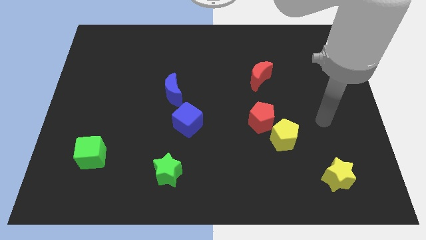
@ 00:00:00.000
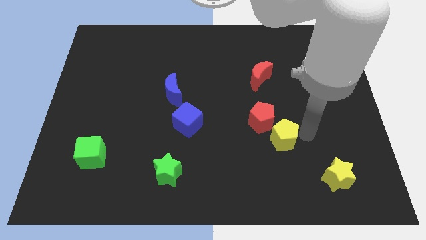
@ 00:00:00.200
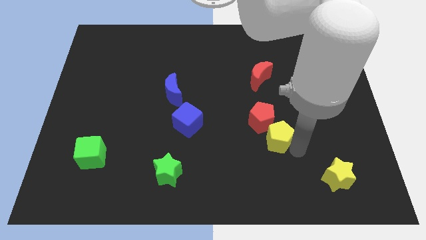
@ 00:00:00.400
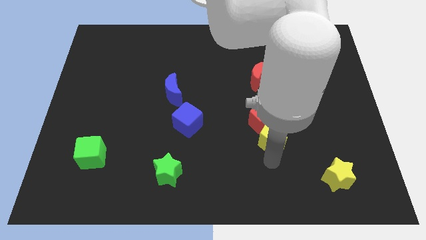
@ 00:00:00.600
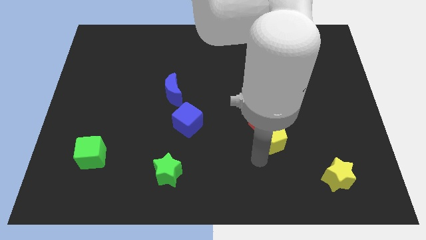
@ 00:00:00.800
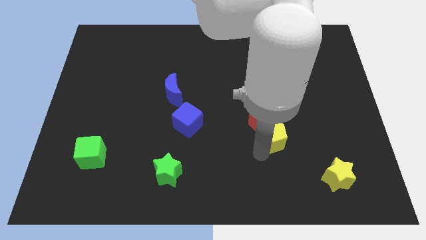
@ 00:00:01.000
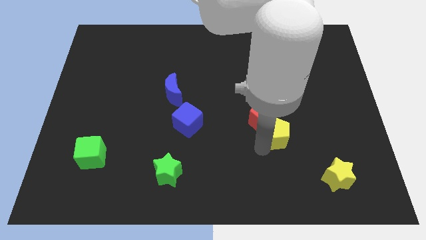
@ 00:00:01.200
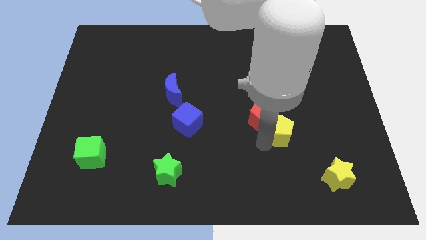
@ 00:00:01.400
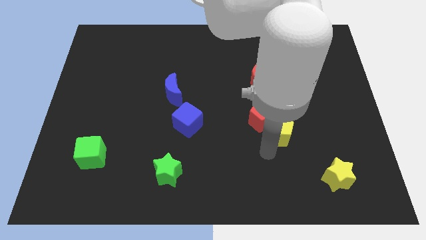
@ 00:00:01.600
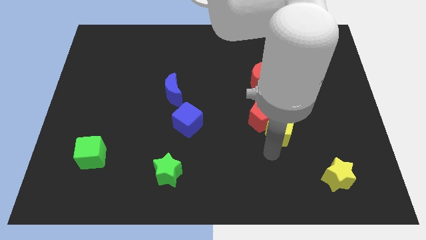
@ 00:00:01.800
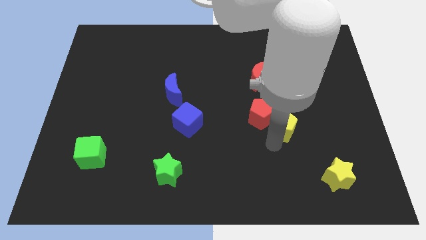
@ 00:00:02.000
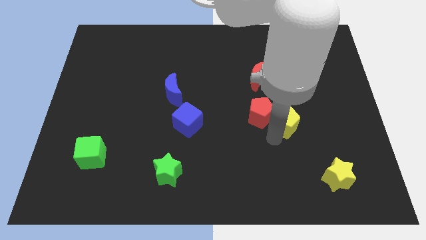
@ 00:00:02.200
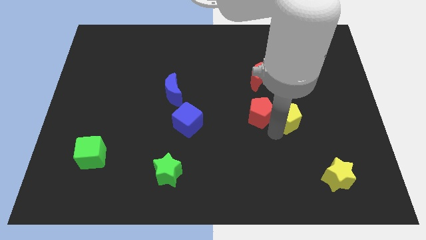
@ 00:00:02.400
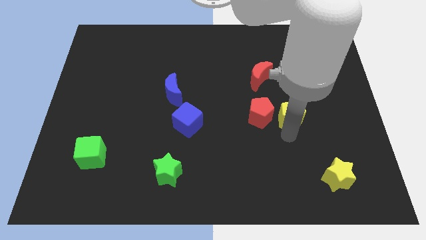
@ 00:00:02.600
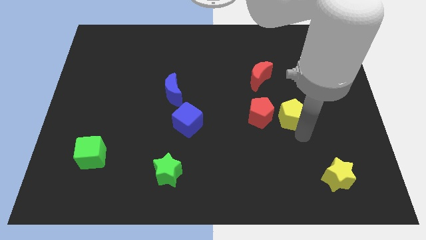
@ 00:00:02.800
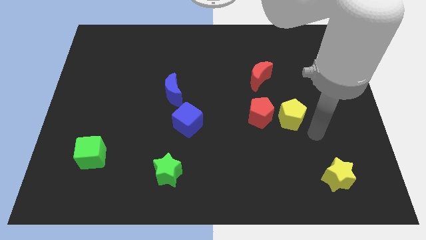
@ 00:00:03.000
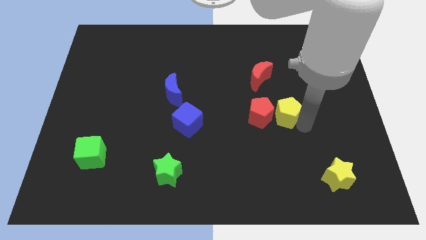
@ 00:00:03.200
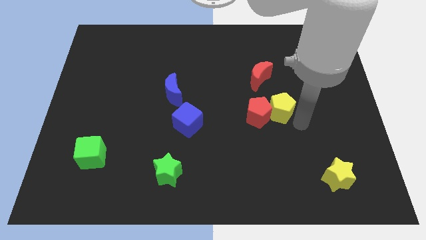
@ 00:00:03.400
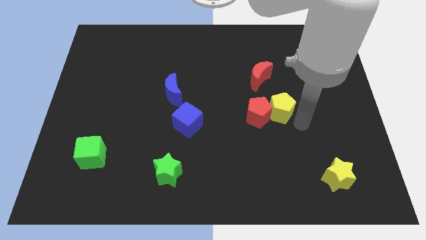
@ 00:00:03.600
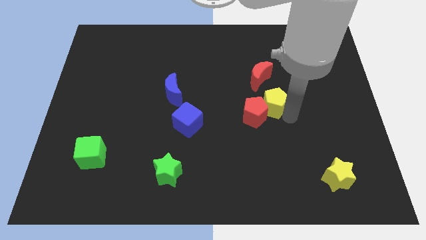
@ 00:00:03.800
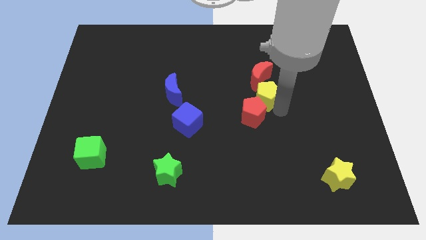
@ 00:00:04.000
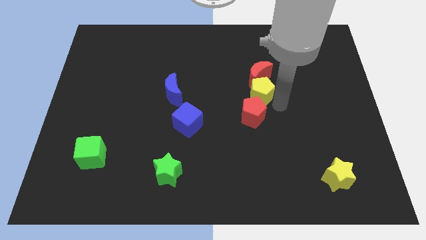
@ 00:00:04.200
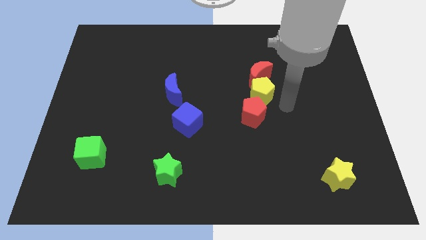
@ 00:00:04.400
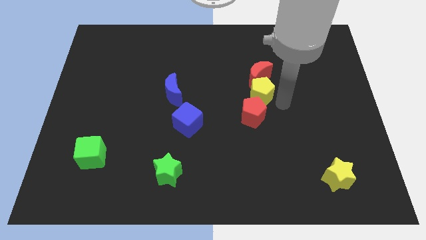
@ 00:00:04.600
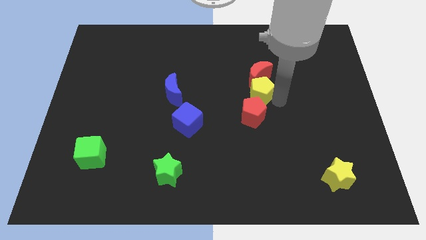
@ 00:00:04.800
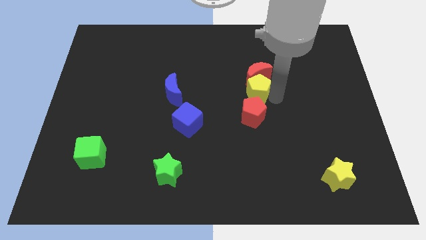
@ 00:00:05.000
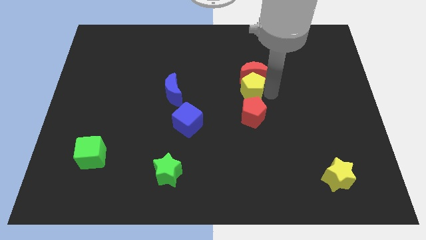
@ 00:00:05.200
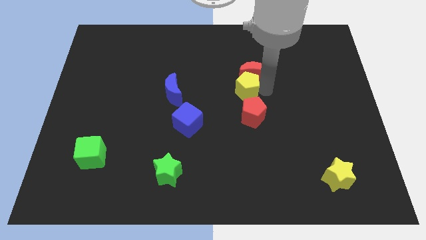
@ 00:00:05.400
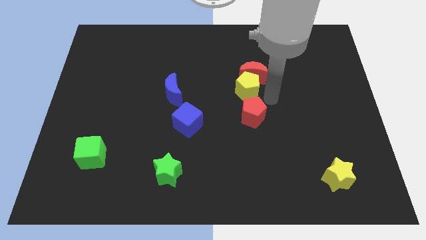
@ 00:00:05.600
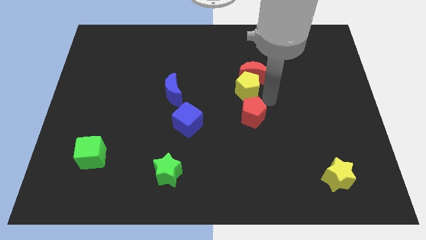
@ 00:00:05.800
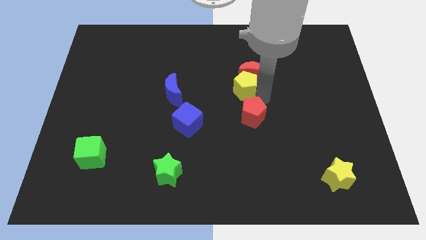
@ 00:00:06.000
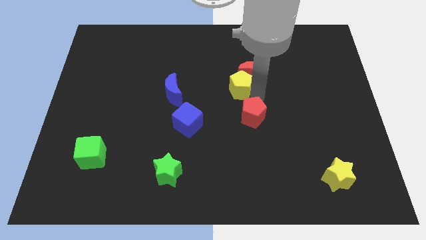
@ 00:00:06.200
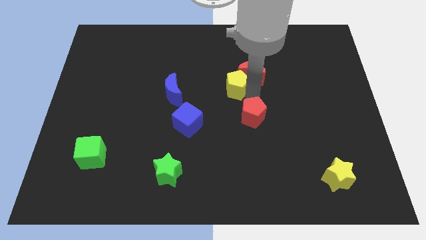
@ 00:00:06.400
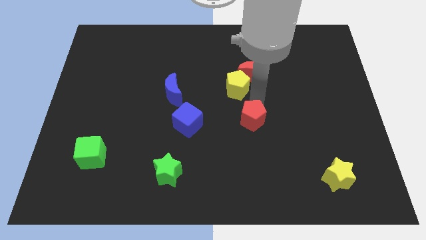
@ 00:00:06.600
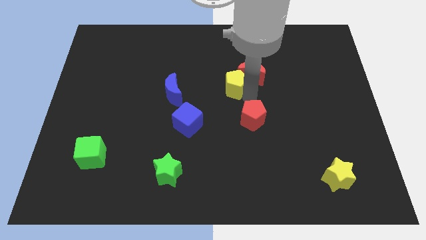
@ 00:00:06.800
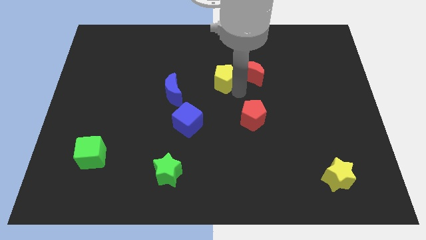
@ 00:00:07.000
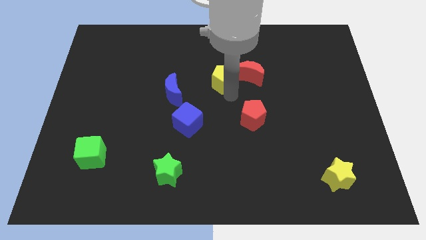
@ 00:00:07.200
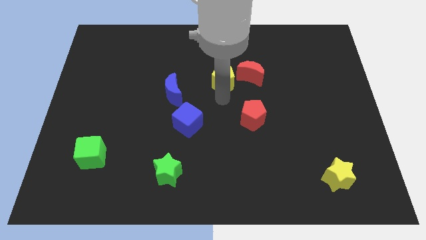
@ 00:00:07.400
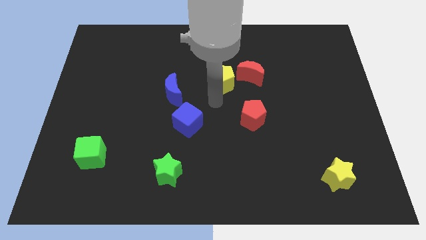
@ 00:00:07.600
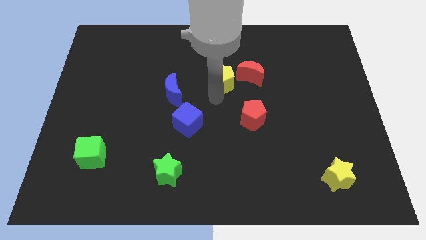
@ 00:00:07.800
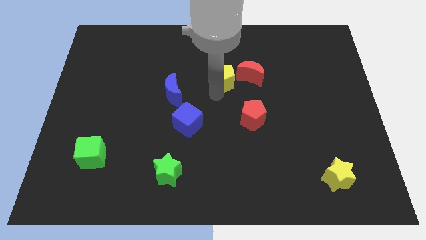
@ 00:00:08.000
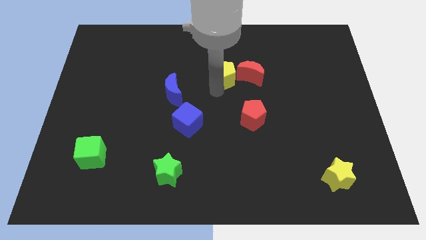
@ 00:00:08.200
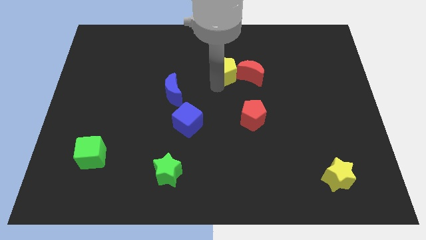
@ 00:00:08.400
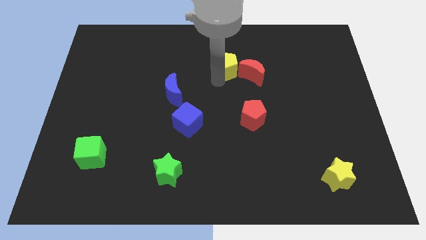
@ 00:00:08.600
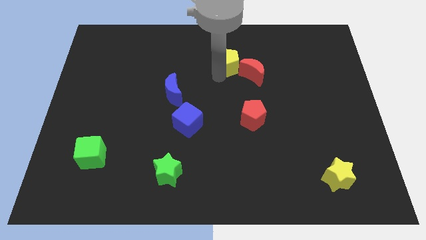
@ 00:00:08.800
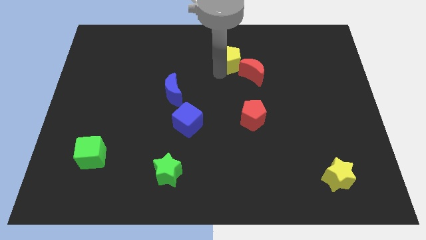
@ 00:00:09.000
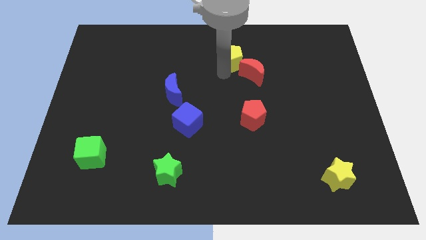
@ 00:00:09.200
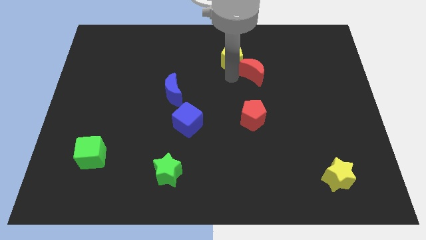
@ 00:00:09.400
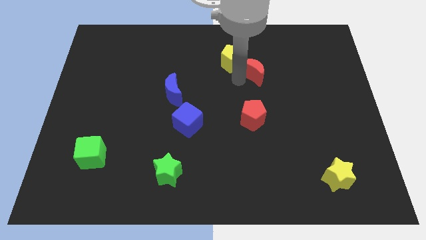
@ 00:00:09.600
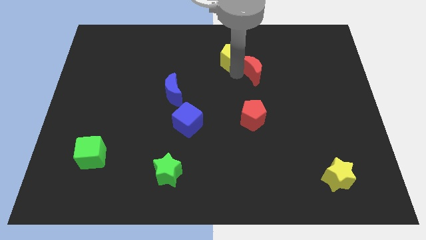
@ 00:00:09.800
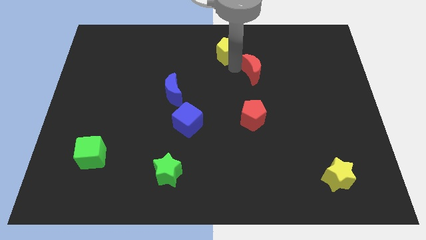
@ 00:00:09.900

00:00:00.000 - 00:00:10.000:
move the yellow pentagon to the top side

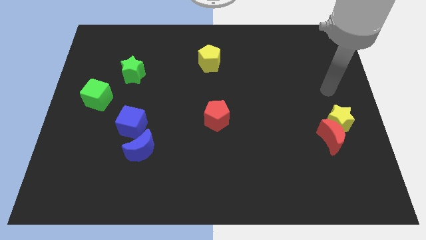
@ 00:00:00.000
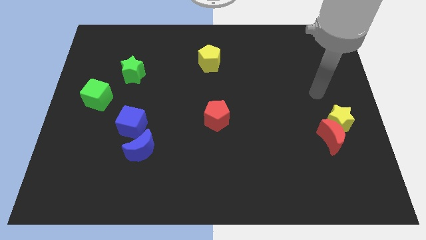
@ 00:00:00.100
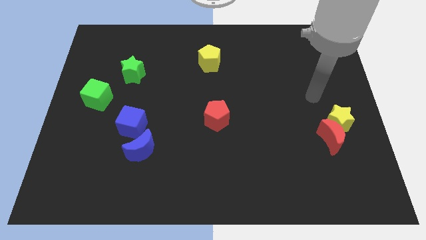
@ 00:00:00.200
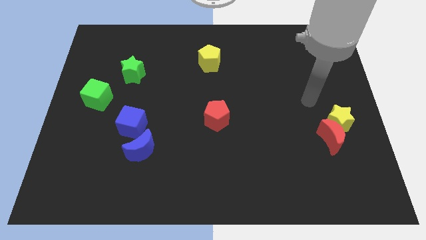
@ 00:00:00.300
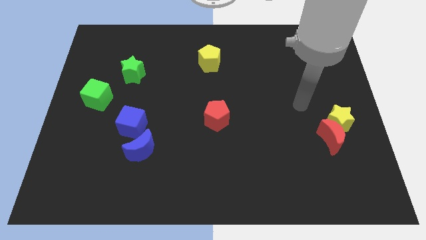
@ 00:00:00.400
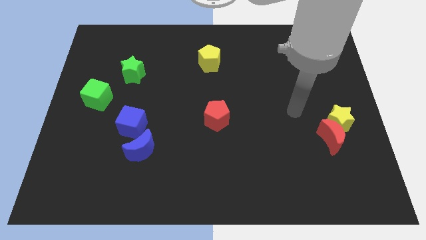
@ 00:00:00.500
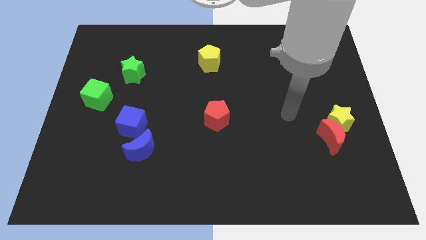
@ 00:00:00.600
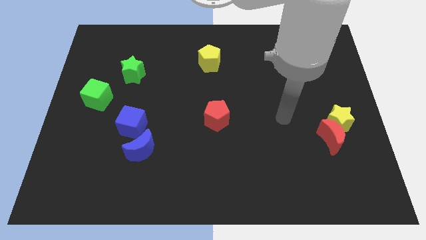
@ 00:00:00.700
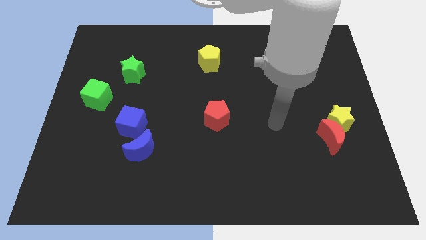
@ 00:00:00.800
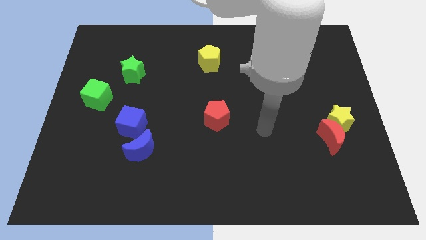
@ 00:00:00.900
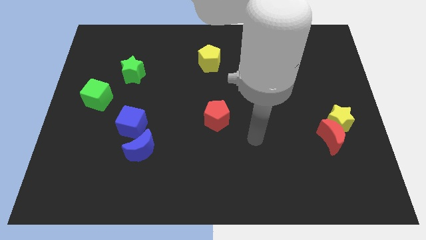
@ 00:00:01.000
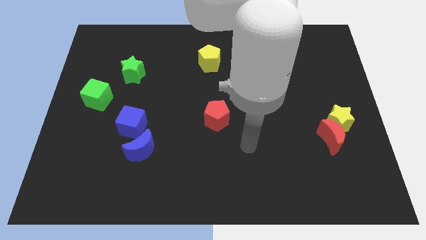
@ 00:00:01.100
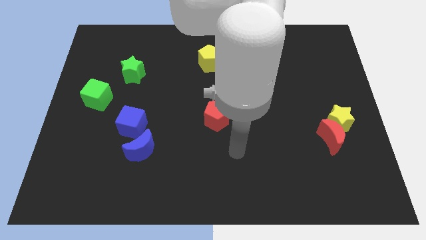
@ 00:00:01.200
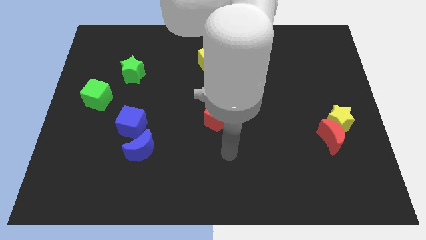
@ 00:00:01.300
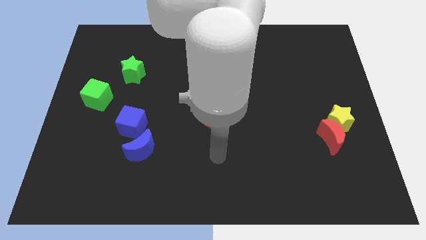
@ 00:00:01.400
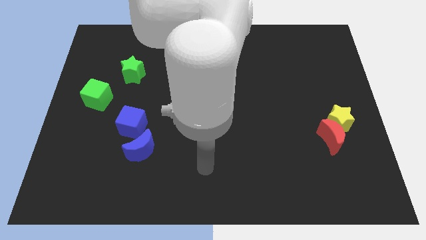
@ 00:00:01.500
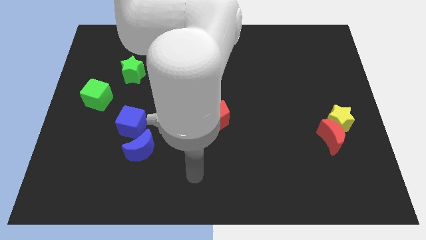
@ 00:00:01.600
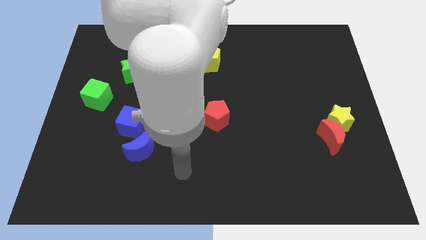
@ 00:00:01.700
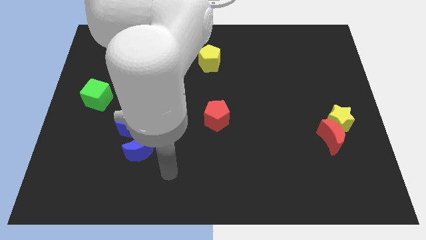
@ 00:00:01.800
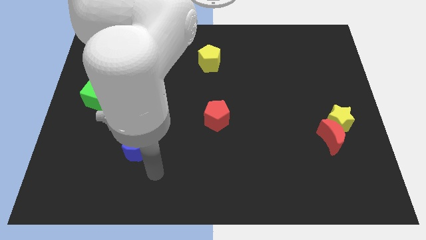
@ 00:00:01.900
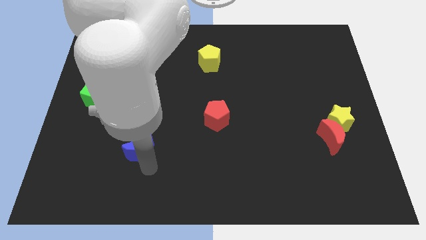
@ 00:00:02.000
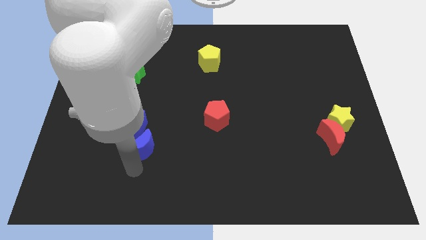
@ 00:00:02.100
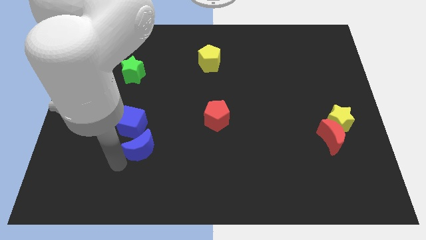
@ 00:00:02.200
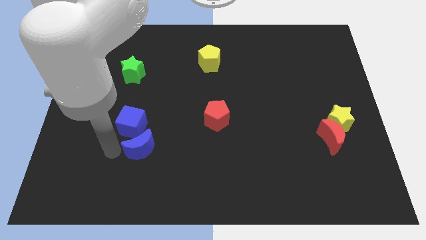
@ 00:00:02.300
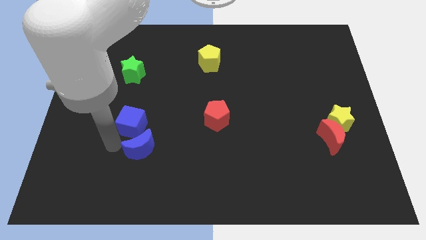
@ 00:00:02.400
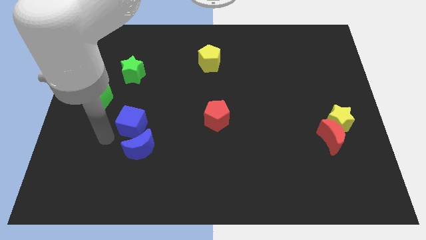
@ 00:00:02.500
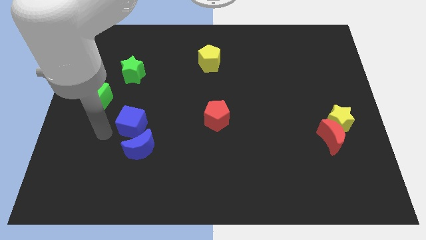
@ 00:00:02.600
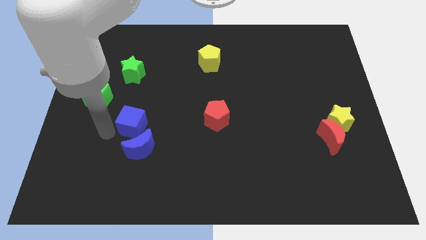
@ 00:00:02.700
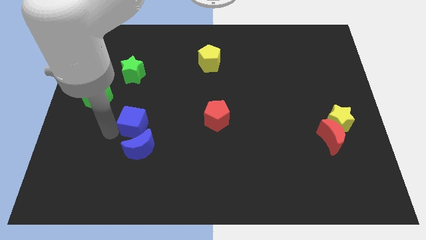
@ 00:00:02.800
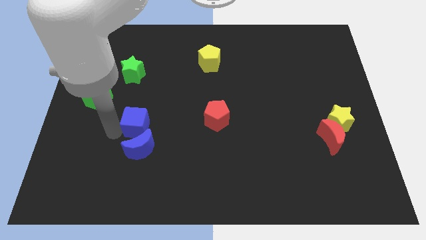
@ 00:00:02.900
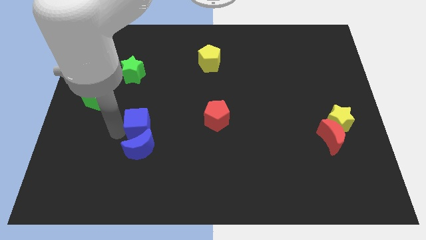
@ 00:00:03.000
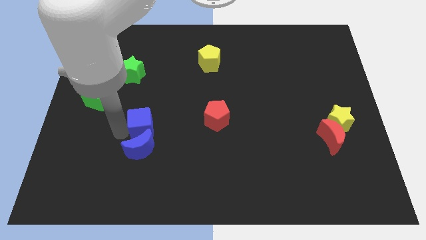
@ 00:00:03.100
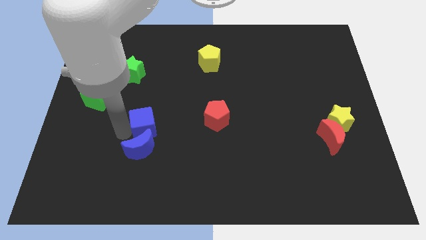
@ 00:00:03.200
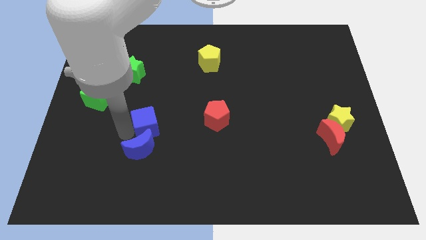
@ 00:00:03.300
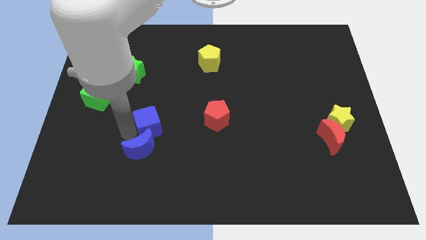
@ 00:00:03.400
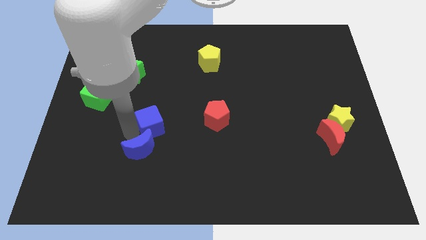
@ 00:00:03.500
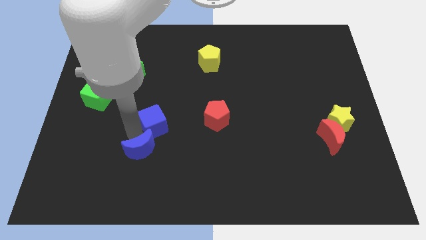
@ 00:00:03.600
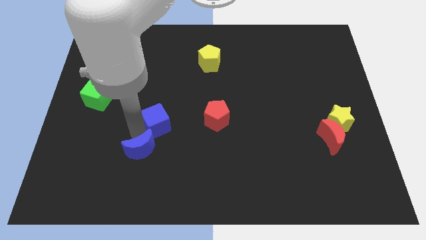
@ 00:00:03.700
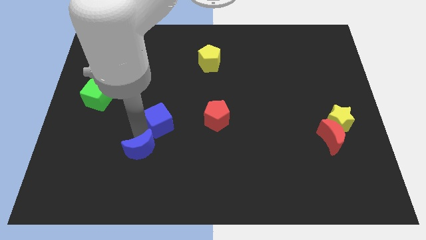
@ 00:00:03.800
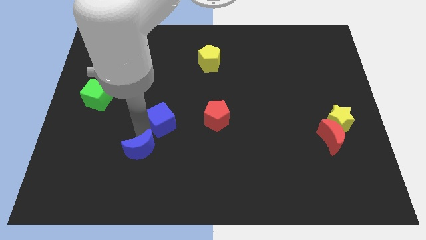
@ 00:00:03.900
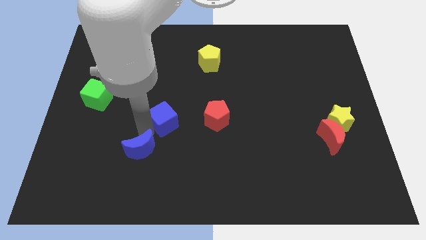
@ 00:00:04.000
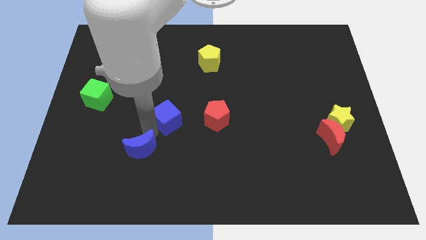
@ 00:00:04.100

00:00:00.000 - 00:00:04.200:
move the blue cube to the middle of the board
